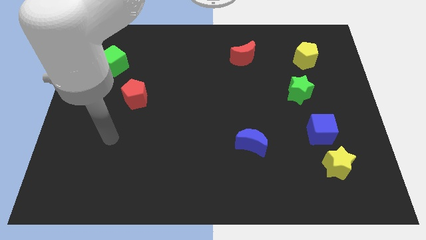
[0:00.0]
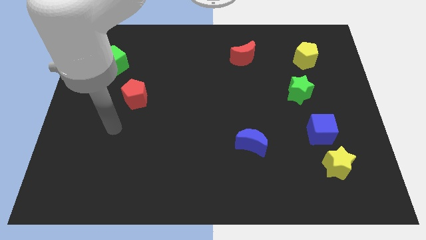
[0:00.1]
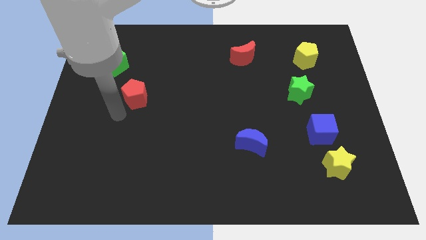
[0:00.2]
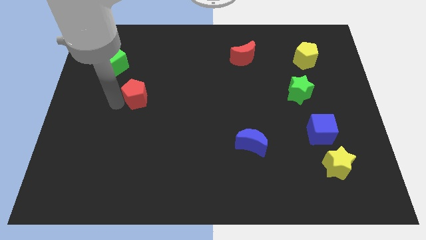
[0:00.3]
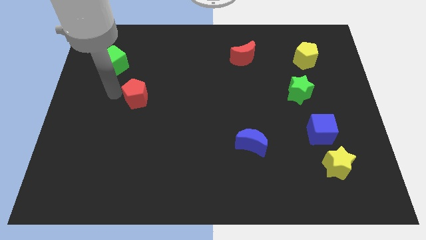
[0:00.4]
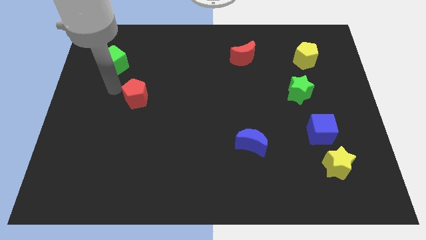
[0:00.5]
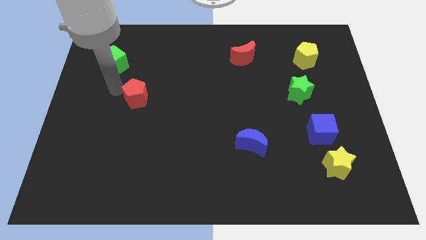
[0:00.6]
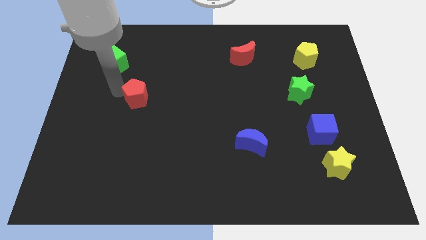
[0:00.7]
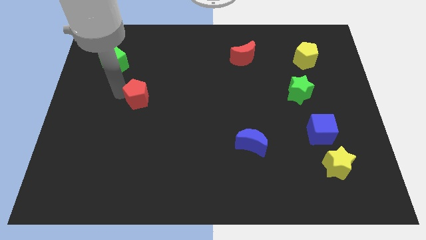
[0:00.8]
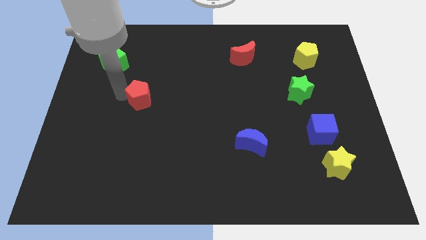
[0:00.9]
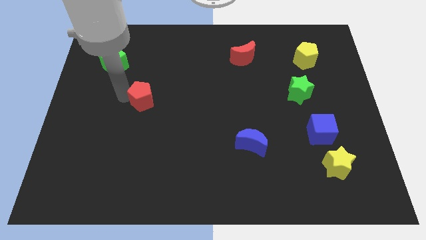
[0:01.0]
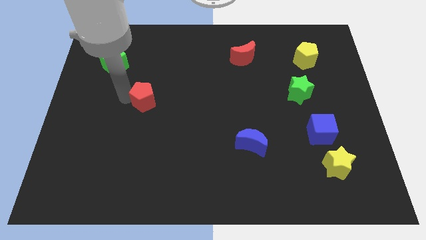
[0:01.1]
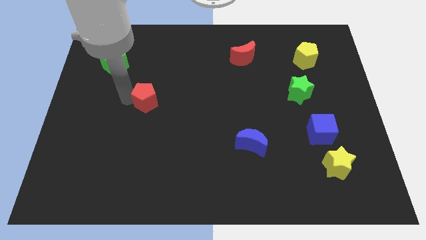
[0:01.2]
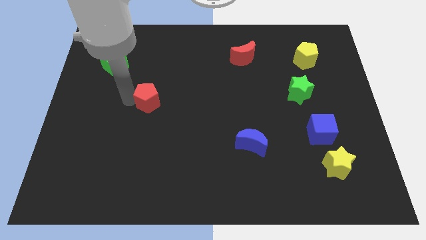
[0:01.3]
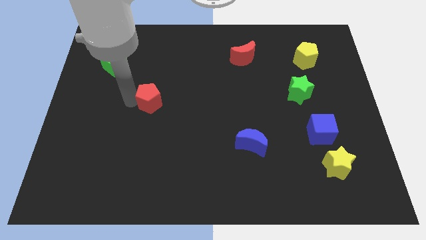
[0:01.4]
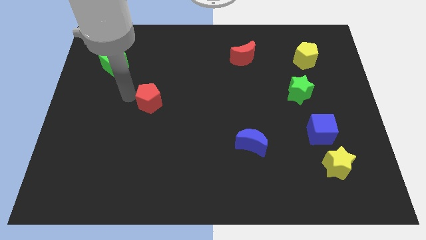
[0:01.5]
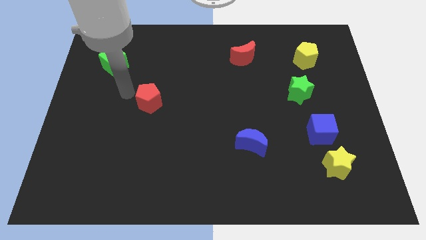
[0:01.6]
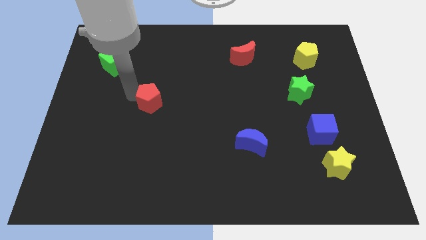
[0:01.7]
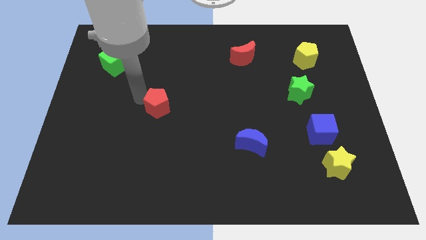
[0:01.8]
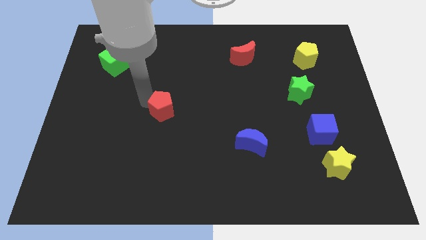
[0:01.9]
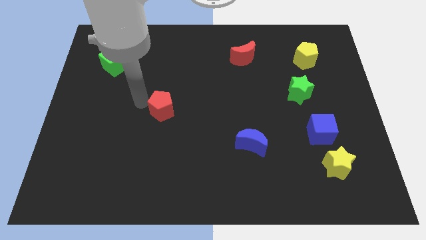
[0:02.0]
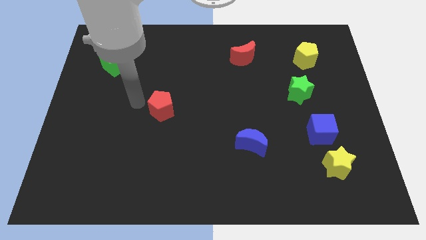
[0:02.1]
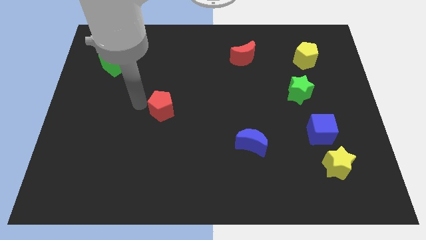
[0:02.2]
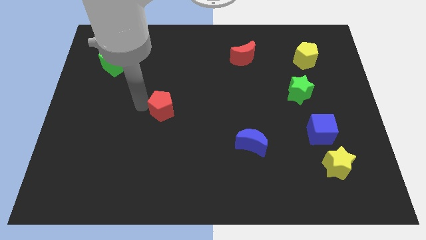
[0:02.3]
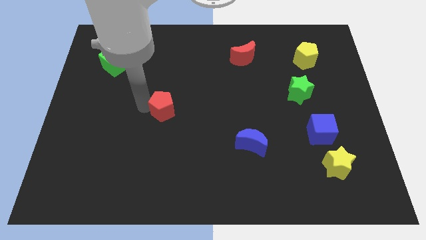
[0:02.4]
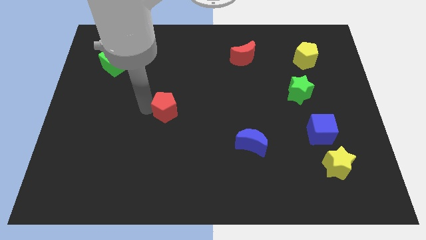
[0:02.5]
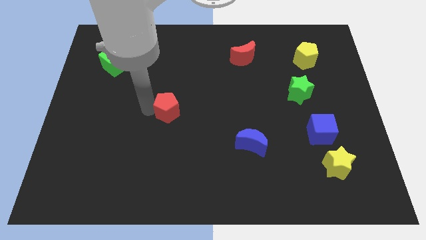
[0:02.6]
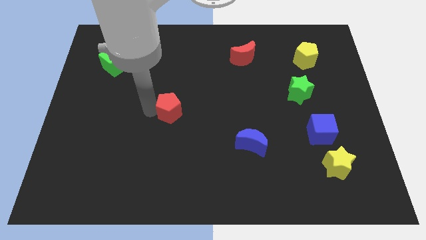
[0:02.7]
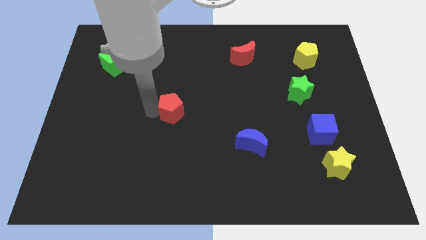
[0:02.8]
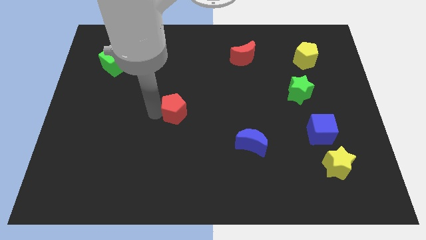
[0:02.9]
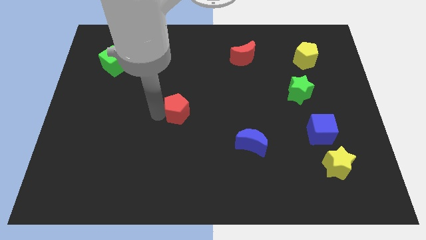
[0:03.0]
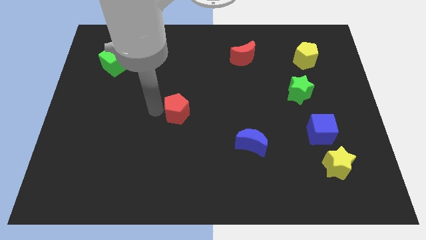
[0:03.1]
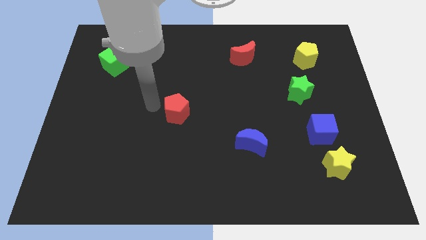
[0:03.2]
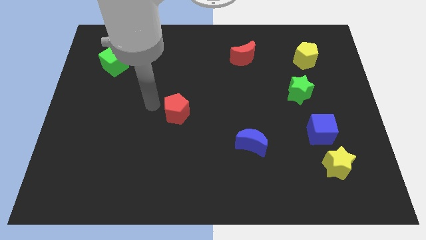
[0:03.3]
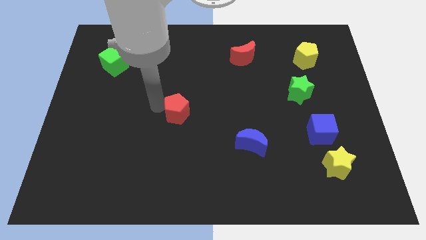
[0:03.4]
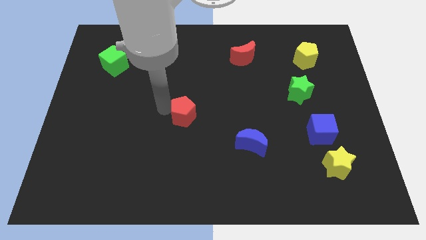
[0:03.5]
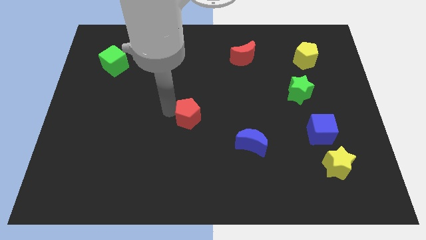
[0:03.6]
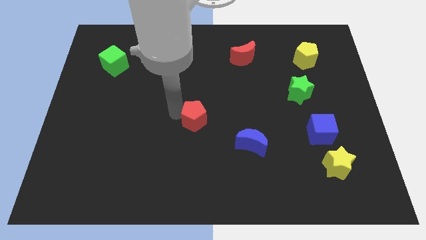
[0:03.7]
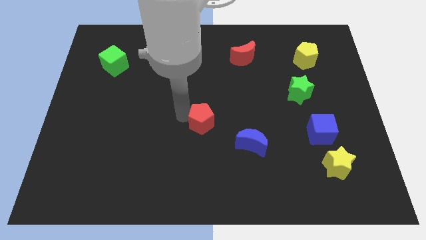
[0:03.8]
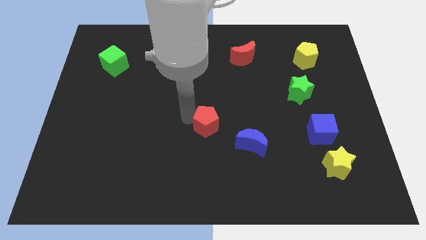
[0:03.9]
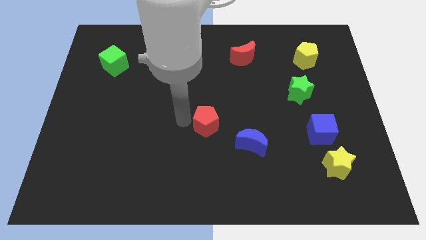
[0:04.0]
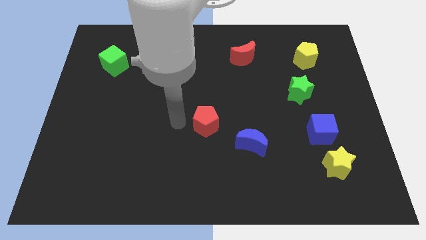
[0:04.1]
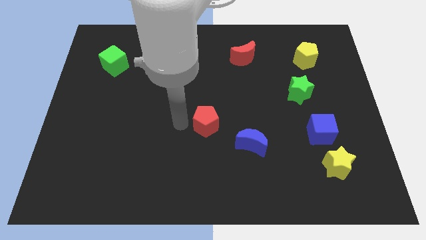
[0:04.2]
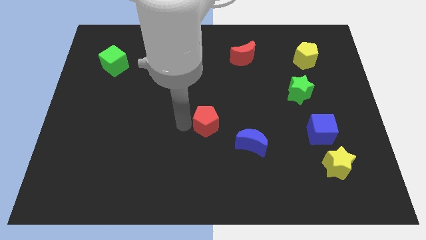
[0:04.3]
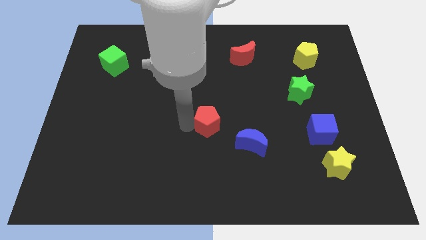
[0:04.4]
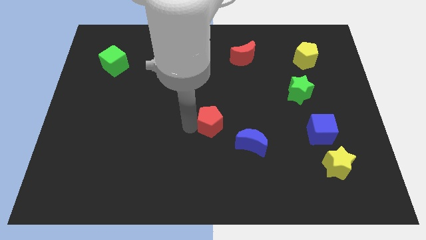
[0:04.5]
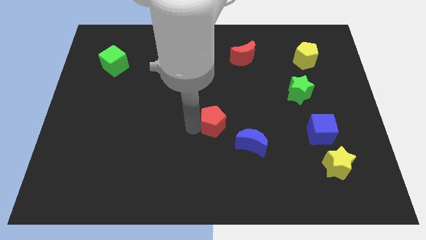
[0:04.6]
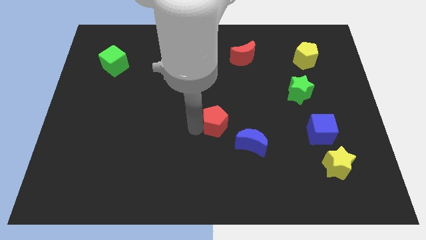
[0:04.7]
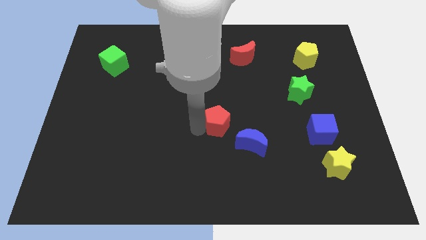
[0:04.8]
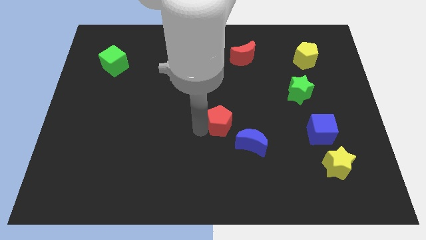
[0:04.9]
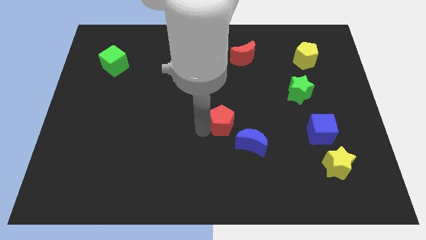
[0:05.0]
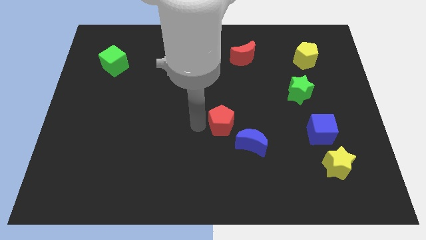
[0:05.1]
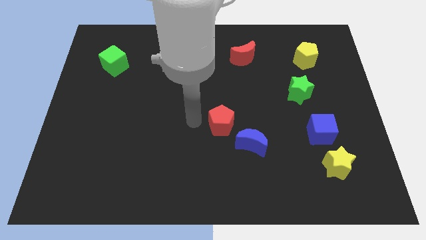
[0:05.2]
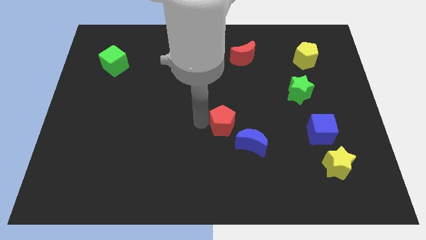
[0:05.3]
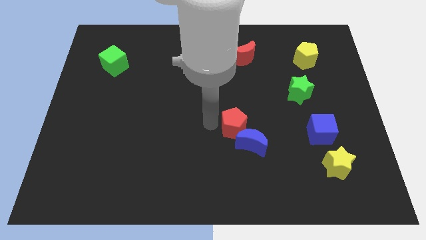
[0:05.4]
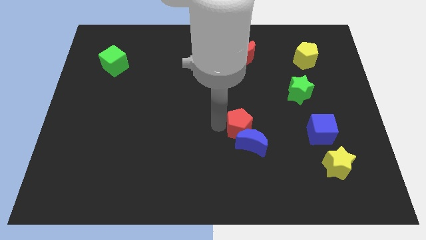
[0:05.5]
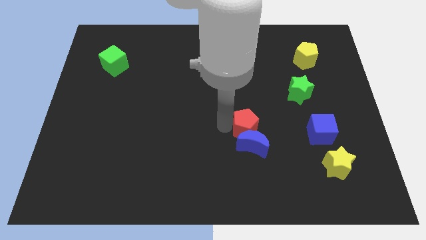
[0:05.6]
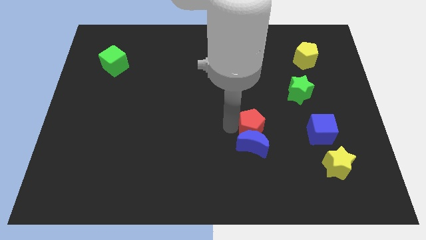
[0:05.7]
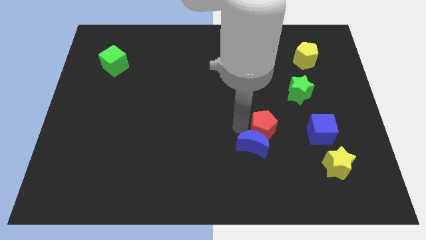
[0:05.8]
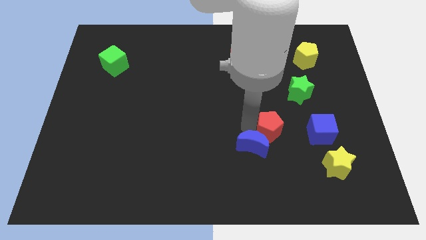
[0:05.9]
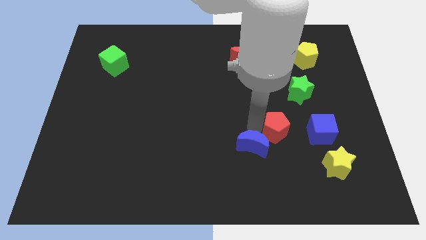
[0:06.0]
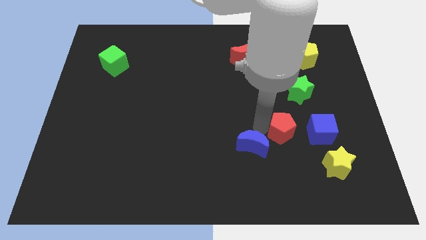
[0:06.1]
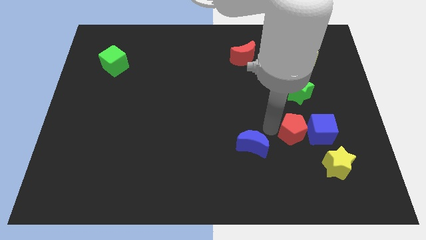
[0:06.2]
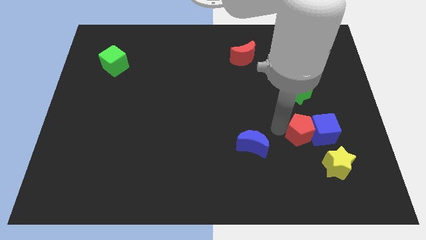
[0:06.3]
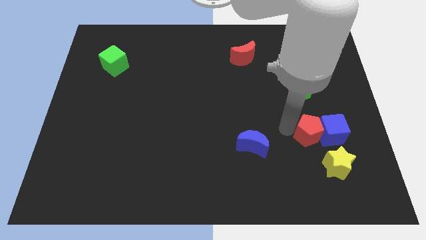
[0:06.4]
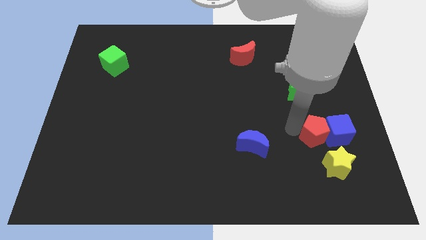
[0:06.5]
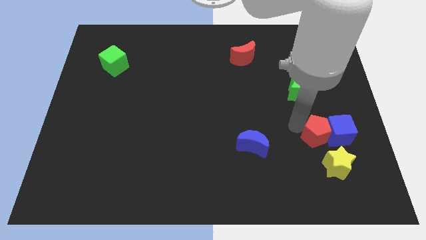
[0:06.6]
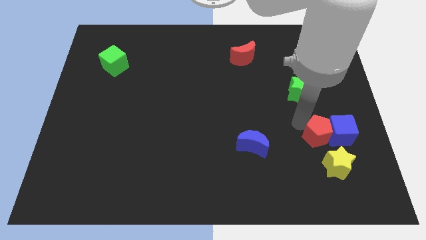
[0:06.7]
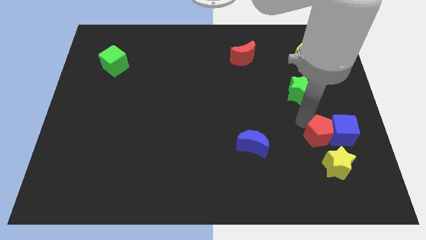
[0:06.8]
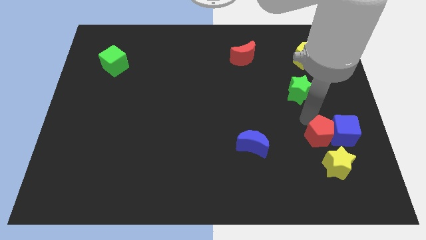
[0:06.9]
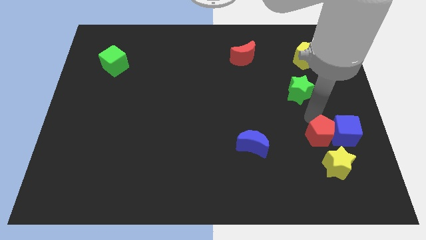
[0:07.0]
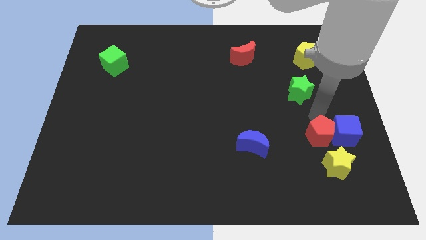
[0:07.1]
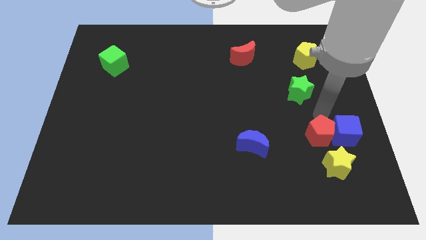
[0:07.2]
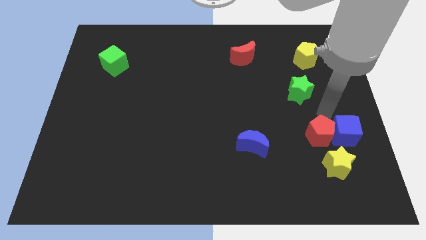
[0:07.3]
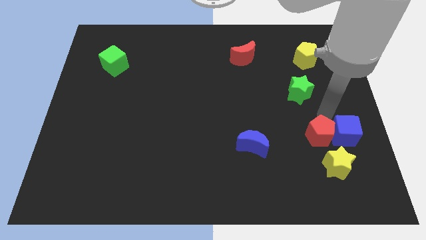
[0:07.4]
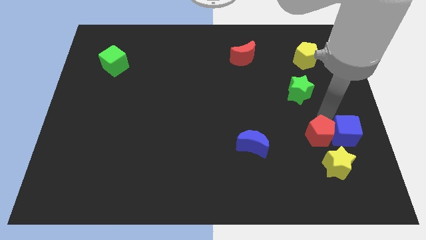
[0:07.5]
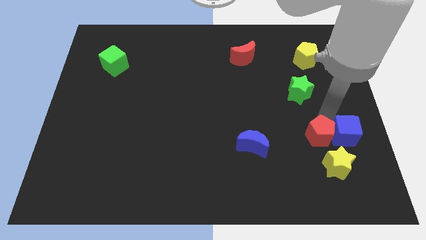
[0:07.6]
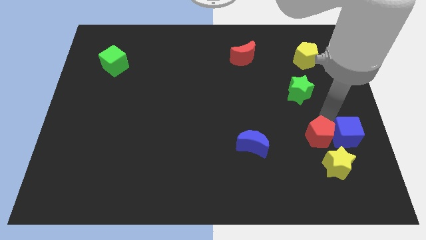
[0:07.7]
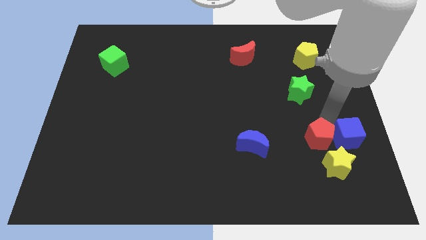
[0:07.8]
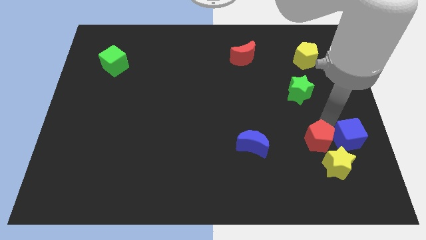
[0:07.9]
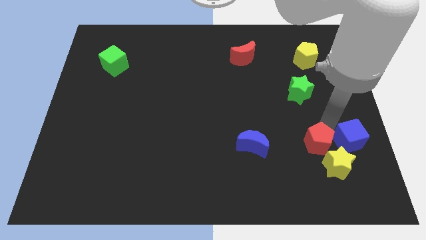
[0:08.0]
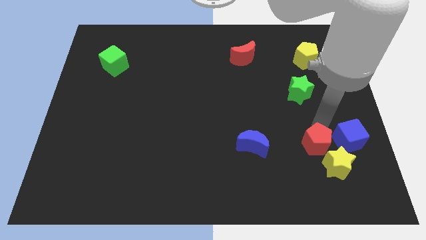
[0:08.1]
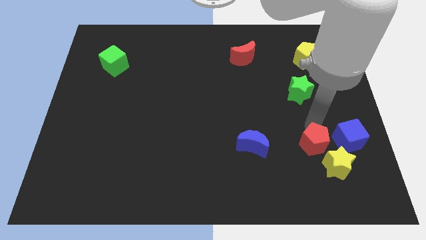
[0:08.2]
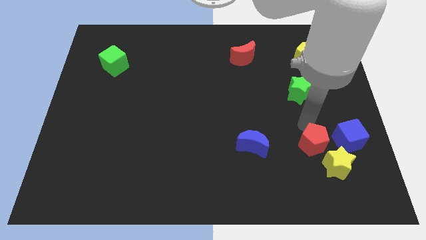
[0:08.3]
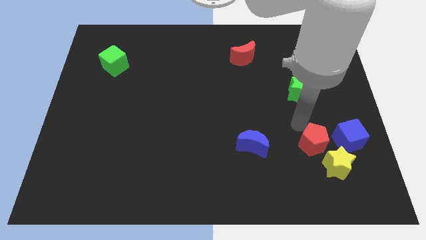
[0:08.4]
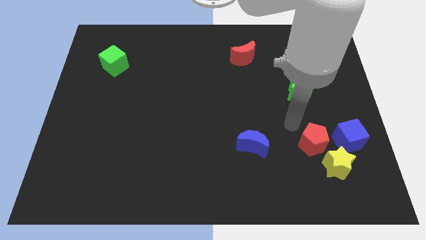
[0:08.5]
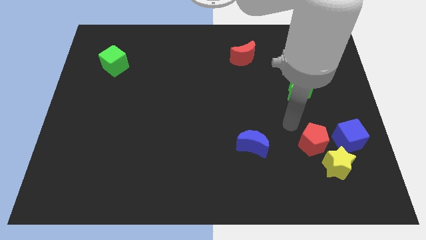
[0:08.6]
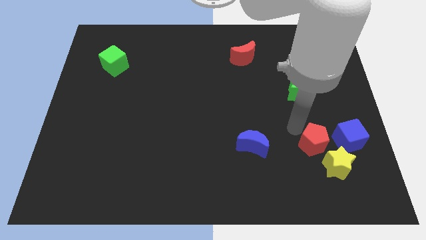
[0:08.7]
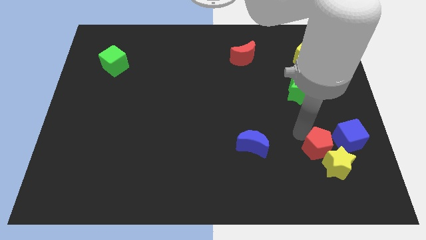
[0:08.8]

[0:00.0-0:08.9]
push the red pentagon towards the yellow star
